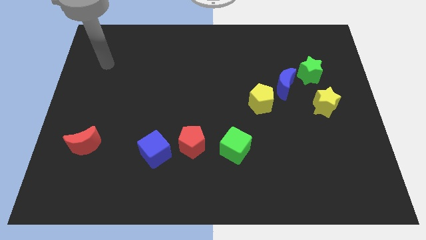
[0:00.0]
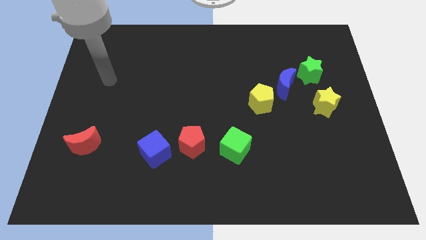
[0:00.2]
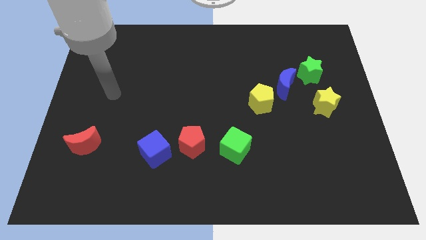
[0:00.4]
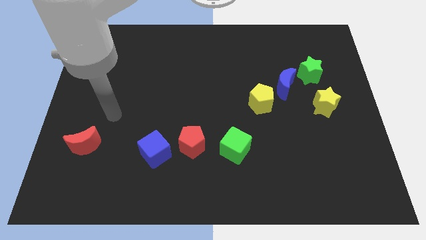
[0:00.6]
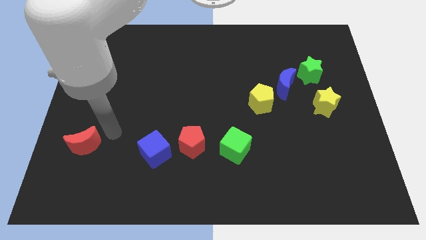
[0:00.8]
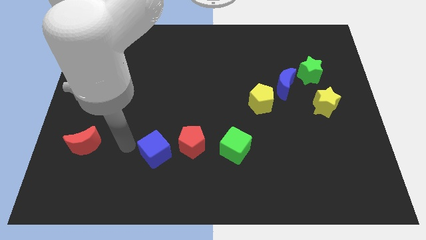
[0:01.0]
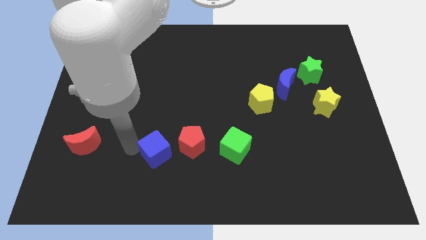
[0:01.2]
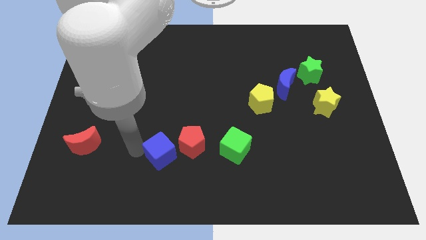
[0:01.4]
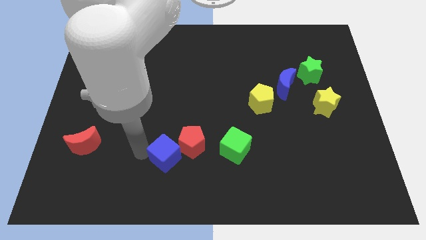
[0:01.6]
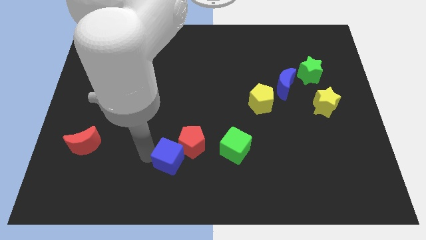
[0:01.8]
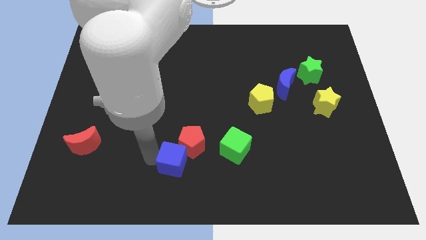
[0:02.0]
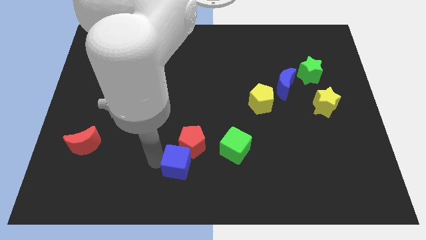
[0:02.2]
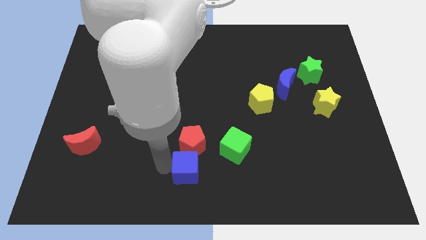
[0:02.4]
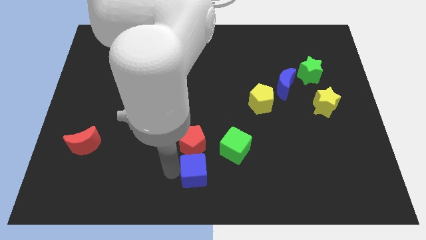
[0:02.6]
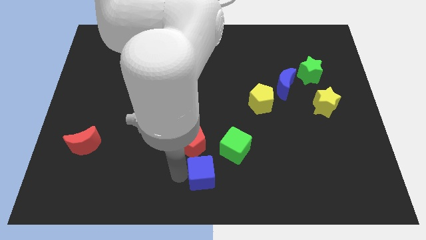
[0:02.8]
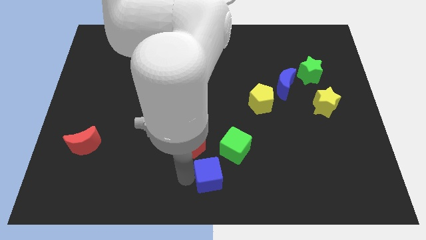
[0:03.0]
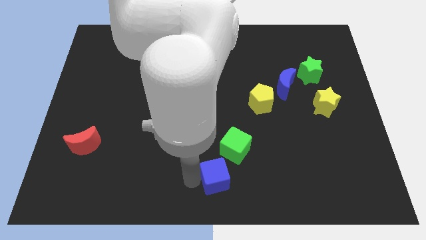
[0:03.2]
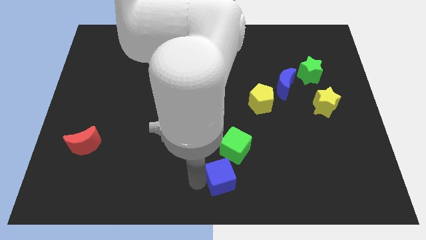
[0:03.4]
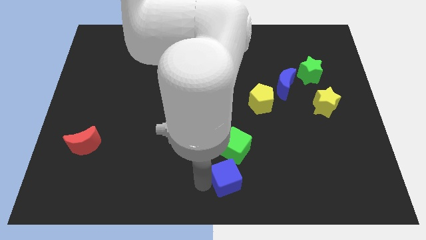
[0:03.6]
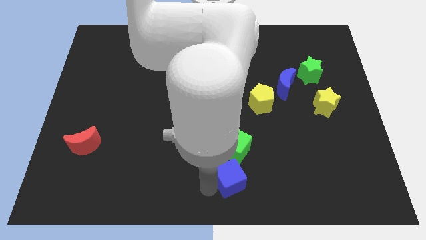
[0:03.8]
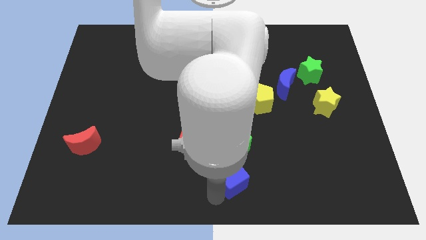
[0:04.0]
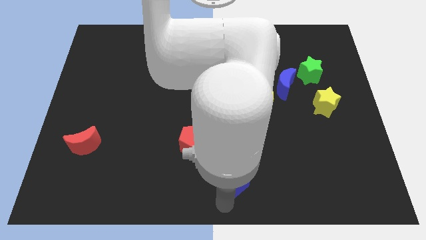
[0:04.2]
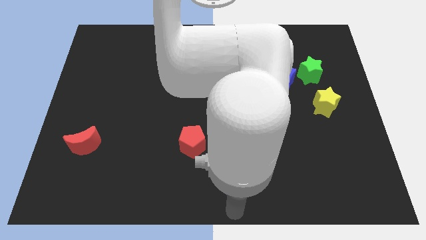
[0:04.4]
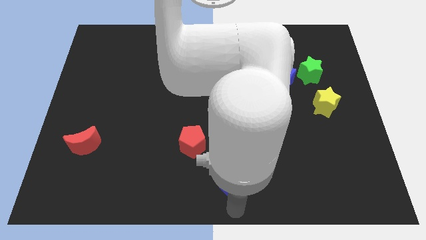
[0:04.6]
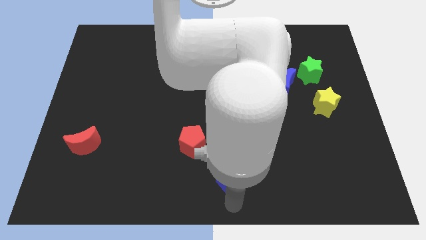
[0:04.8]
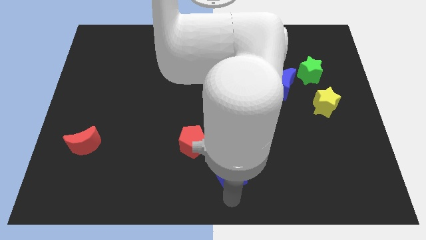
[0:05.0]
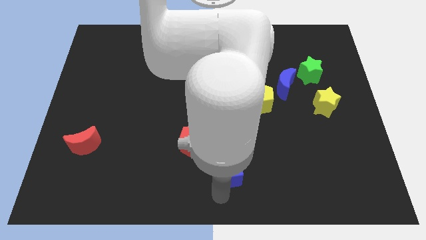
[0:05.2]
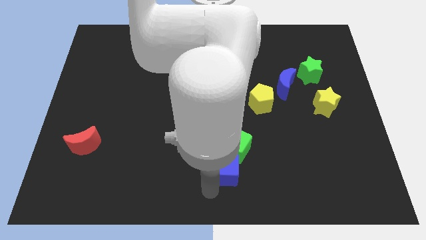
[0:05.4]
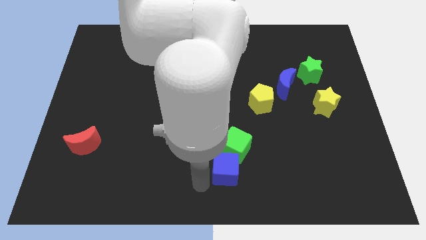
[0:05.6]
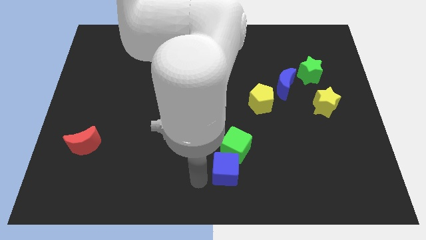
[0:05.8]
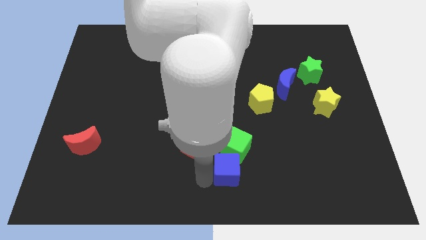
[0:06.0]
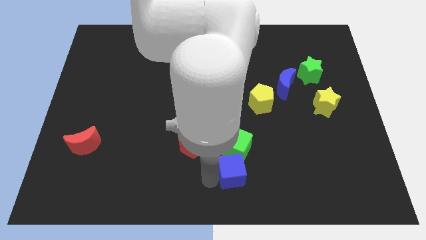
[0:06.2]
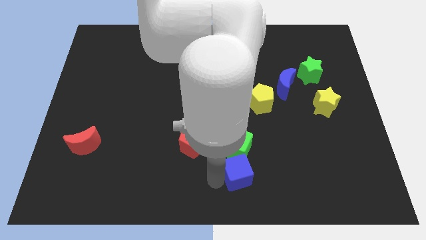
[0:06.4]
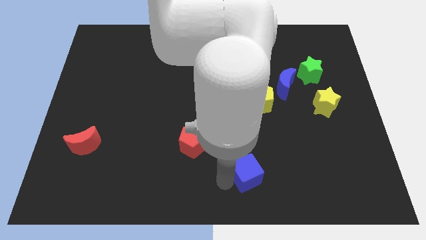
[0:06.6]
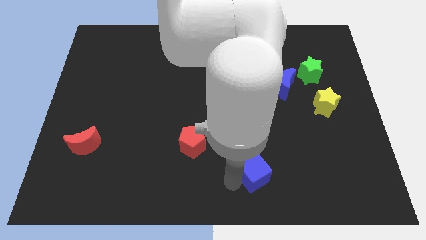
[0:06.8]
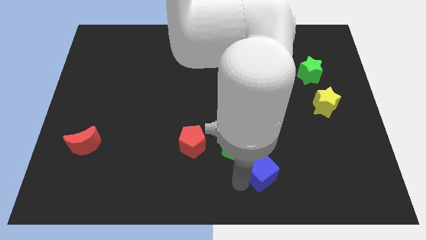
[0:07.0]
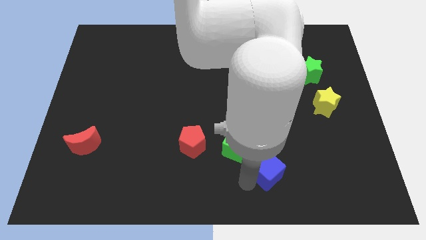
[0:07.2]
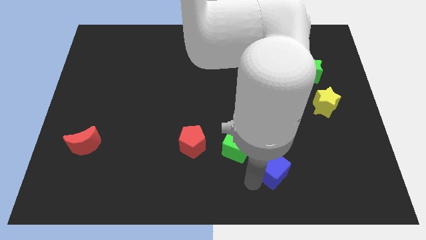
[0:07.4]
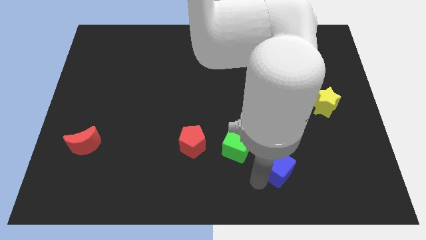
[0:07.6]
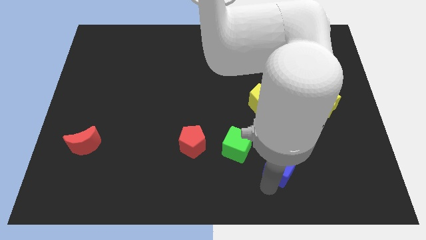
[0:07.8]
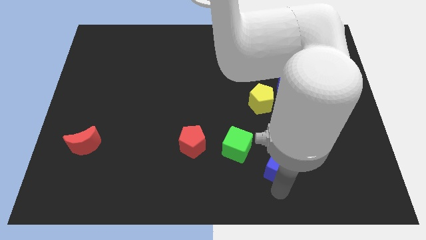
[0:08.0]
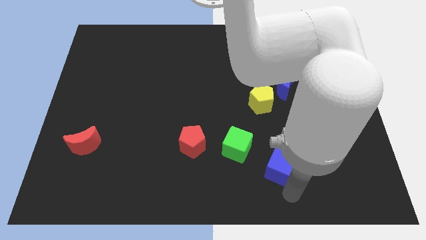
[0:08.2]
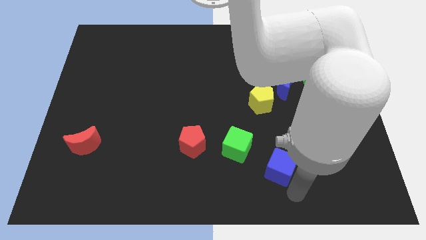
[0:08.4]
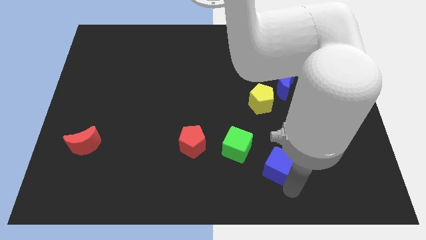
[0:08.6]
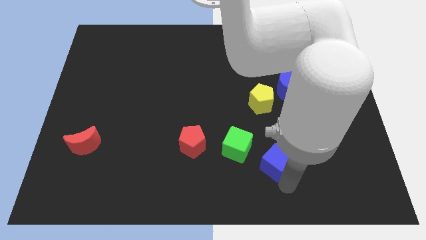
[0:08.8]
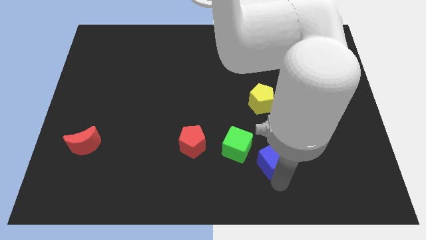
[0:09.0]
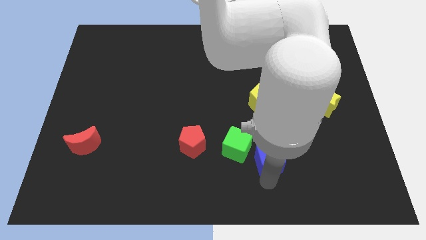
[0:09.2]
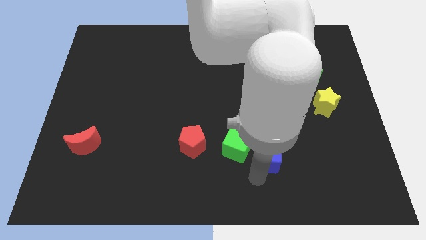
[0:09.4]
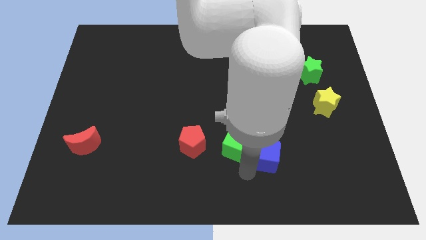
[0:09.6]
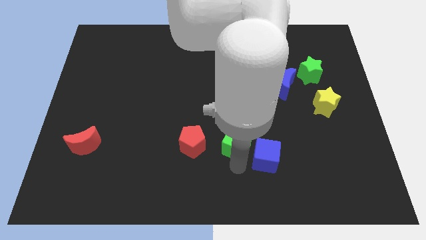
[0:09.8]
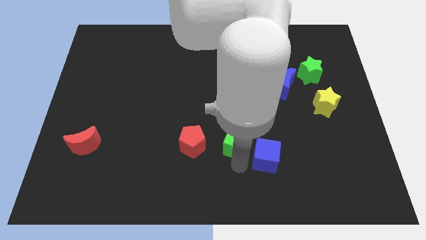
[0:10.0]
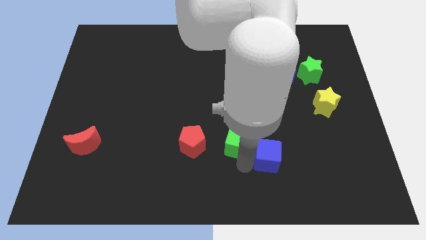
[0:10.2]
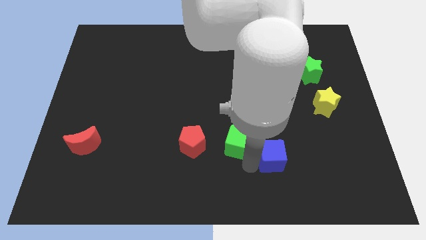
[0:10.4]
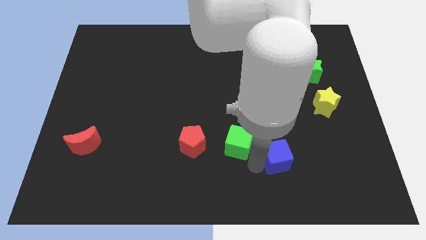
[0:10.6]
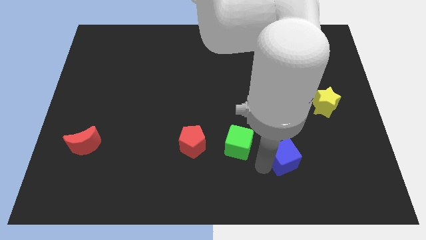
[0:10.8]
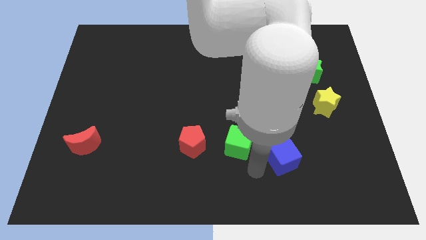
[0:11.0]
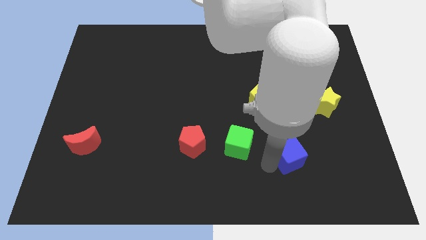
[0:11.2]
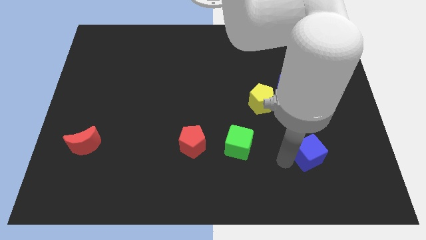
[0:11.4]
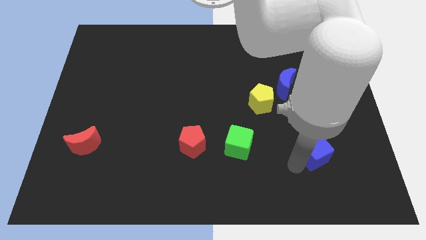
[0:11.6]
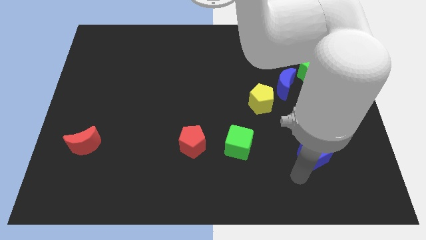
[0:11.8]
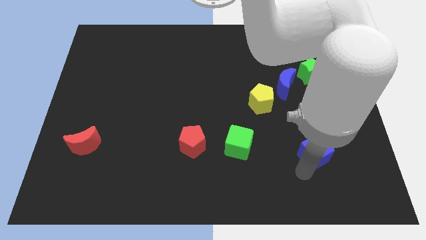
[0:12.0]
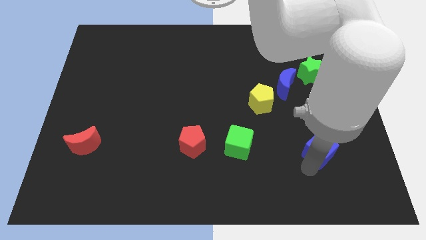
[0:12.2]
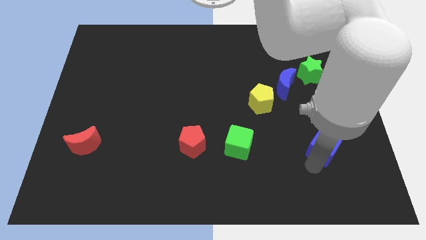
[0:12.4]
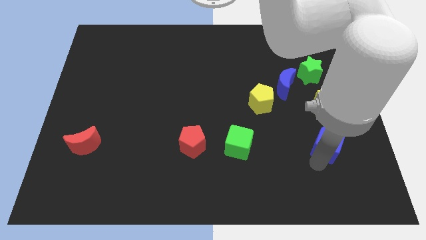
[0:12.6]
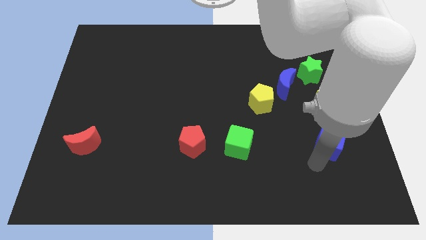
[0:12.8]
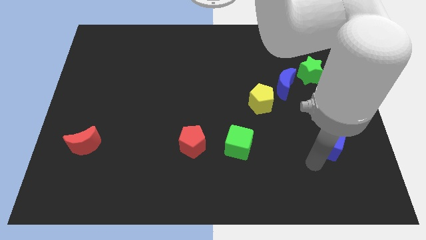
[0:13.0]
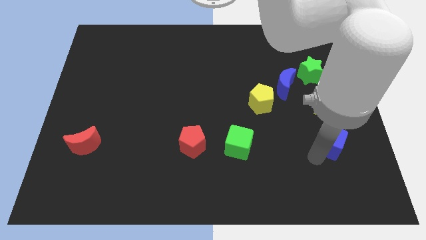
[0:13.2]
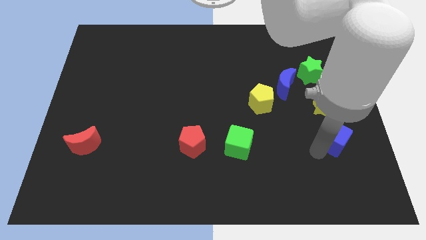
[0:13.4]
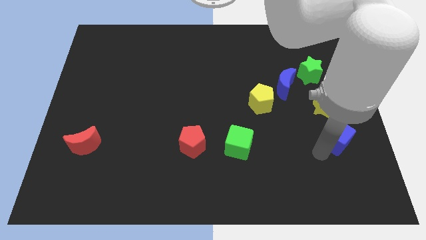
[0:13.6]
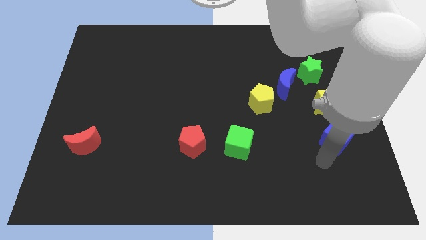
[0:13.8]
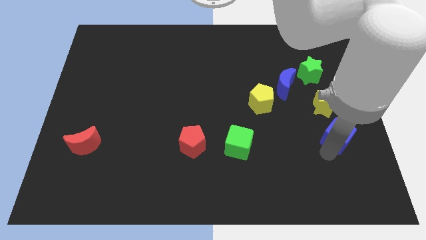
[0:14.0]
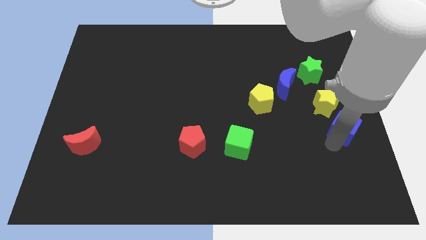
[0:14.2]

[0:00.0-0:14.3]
slide the blue cube to the center right
